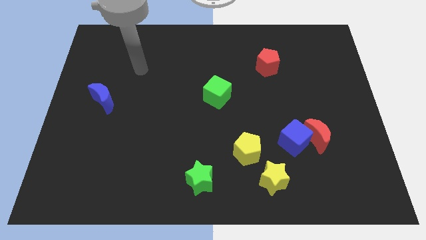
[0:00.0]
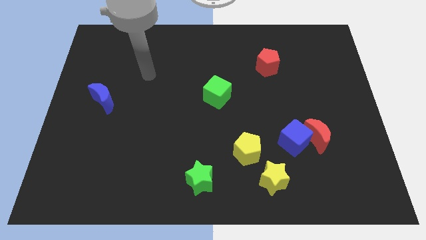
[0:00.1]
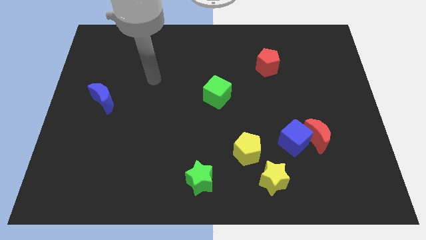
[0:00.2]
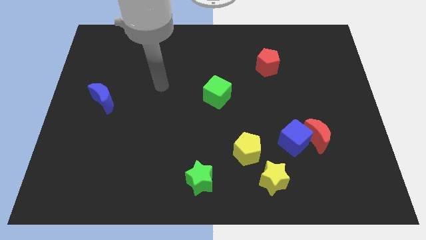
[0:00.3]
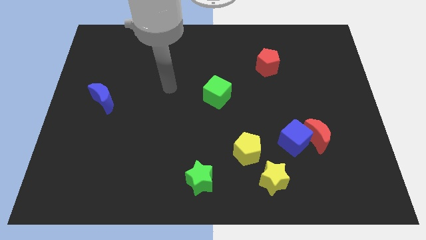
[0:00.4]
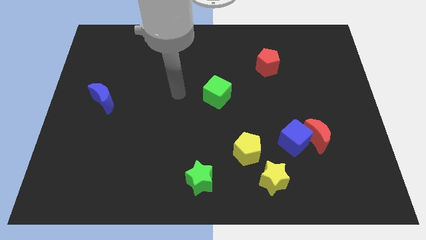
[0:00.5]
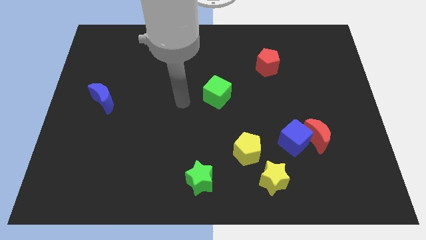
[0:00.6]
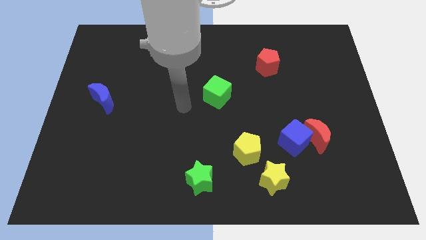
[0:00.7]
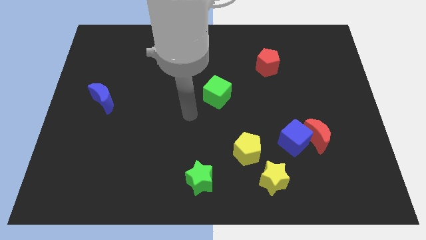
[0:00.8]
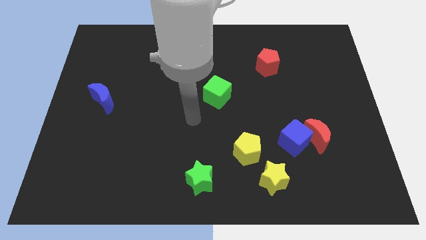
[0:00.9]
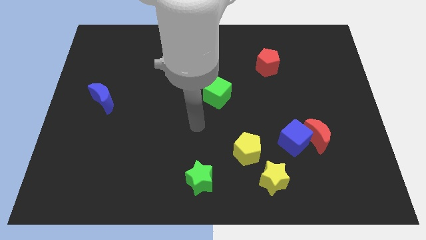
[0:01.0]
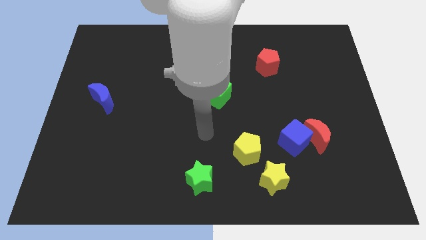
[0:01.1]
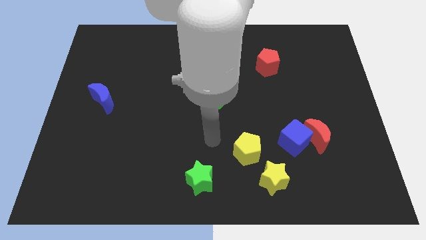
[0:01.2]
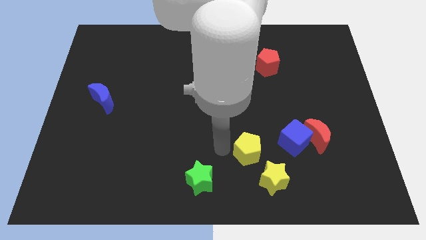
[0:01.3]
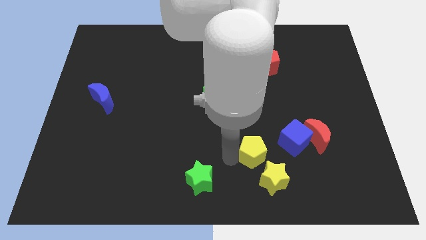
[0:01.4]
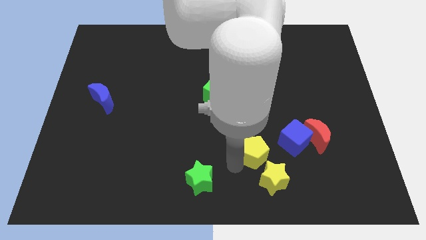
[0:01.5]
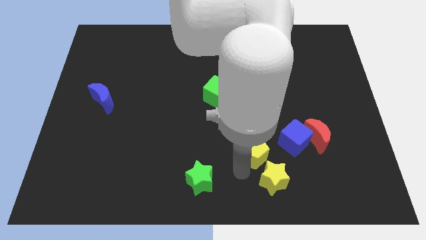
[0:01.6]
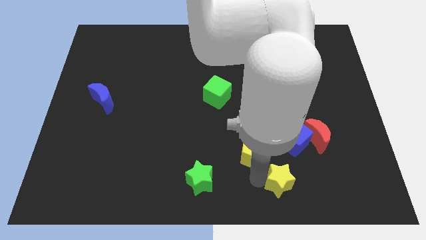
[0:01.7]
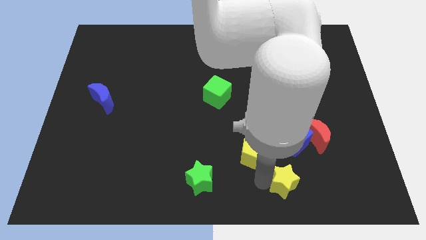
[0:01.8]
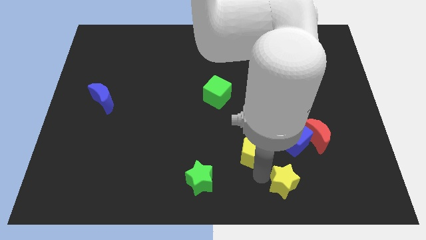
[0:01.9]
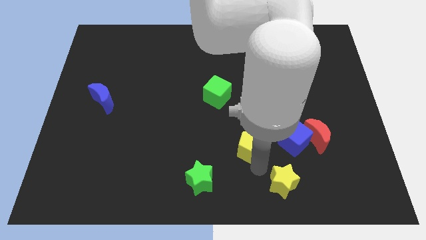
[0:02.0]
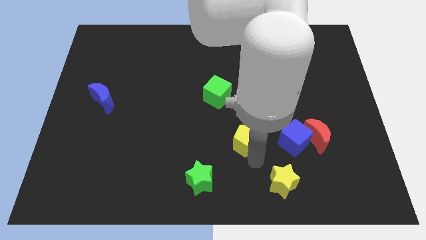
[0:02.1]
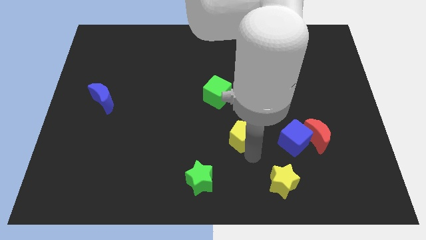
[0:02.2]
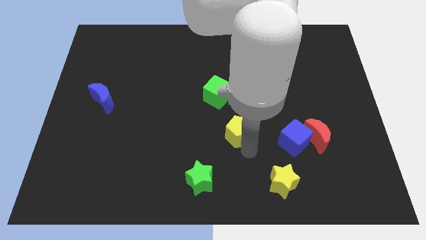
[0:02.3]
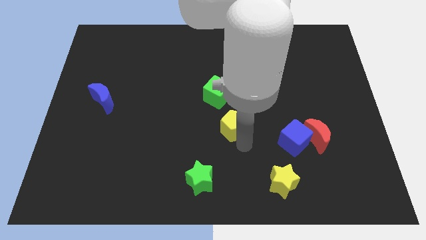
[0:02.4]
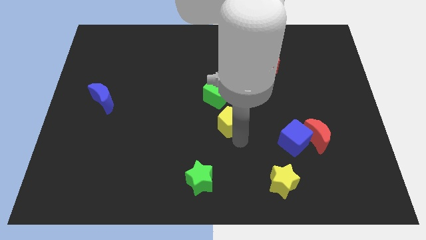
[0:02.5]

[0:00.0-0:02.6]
slightly push the yellow pentagon upwards

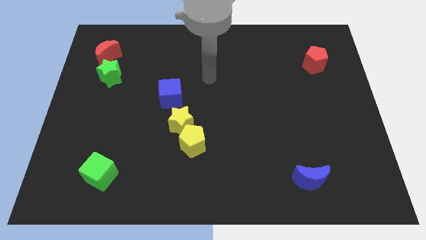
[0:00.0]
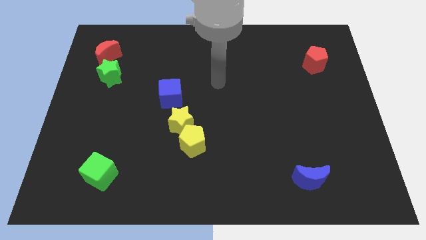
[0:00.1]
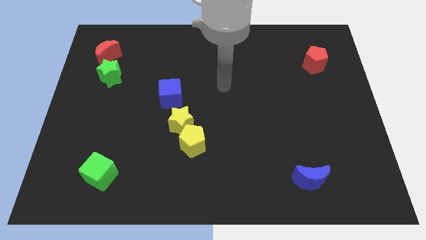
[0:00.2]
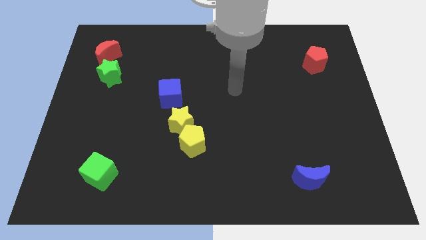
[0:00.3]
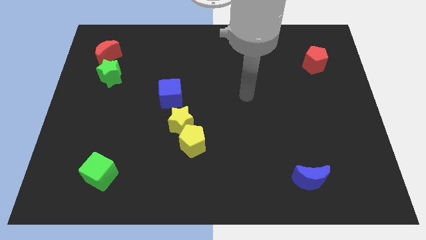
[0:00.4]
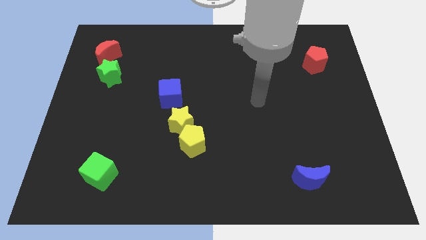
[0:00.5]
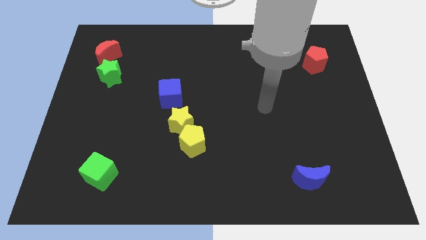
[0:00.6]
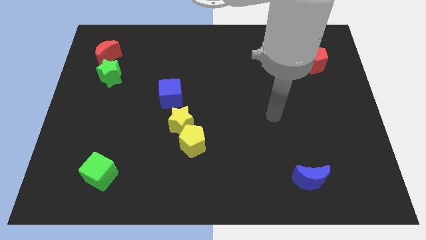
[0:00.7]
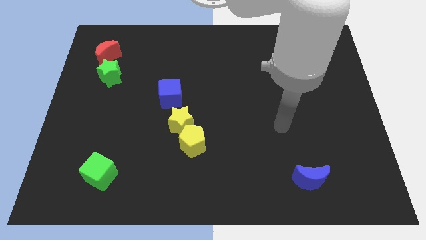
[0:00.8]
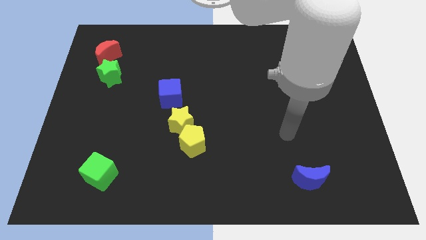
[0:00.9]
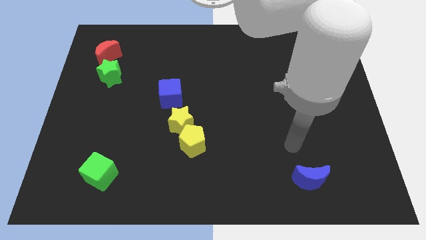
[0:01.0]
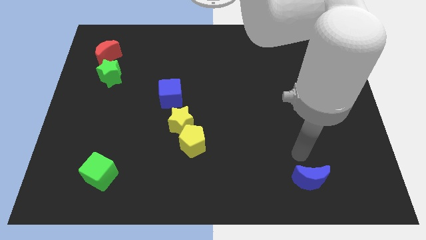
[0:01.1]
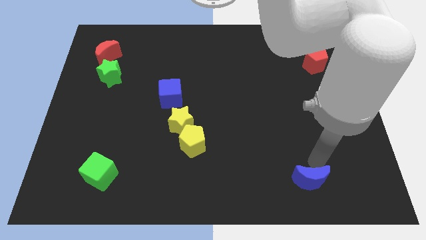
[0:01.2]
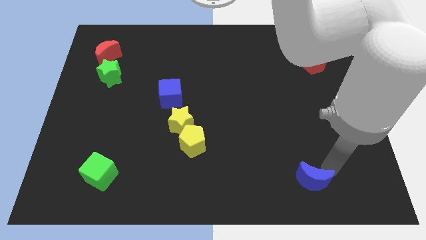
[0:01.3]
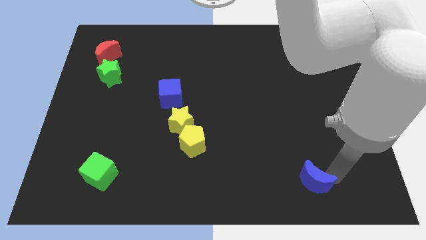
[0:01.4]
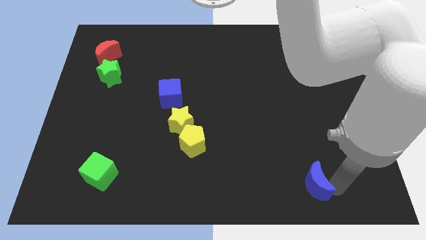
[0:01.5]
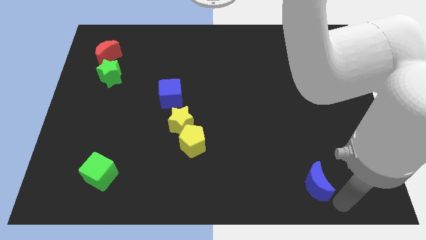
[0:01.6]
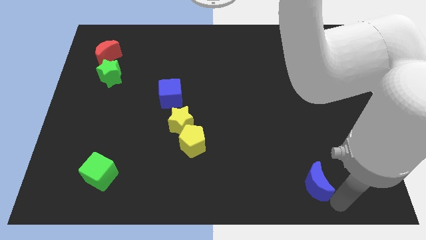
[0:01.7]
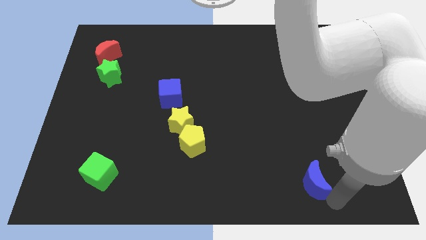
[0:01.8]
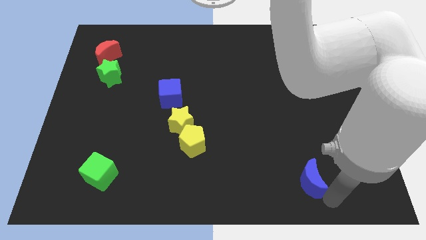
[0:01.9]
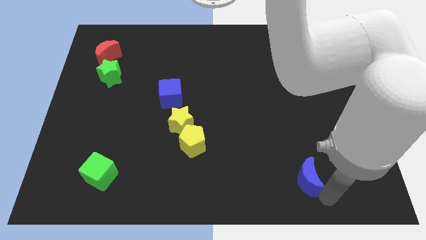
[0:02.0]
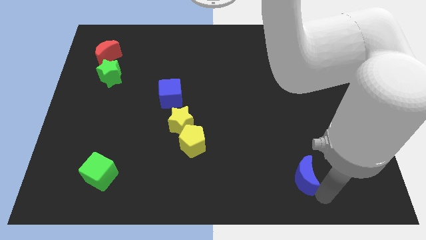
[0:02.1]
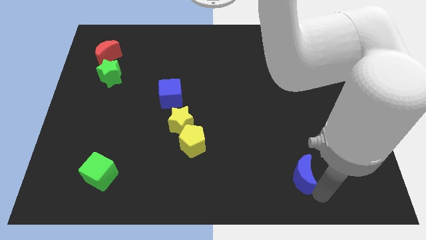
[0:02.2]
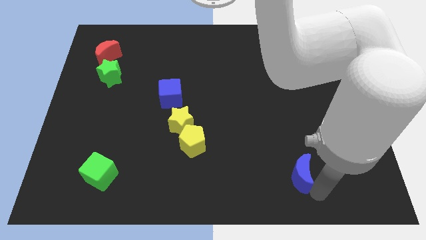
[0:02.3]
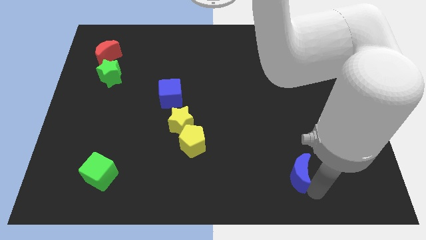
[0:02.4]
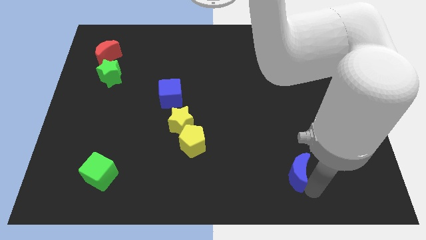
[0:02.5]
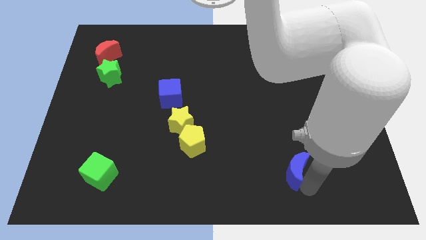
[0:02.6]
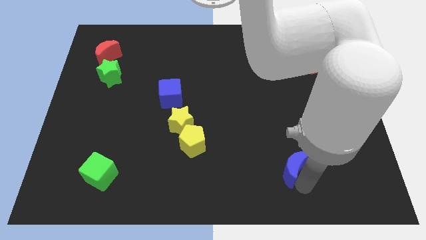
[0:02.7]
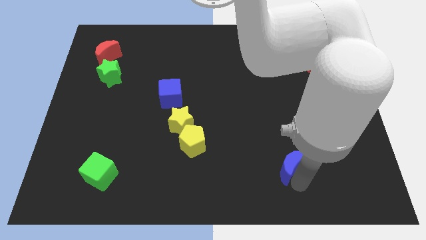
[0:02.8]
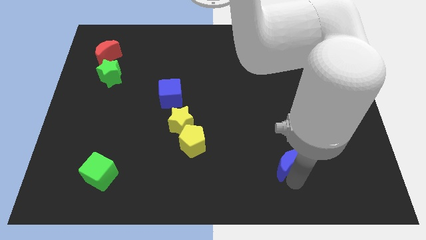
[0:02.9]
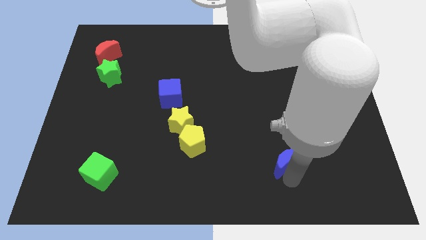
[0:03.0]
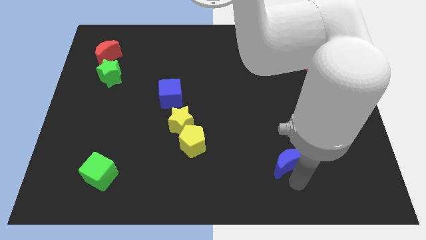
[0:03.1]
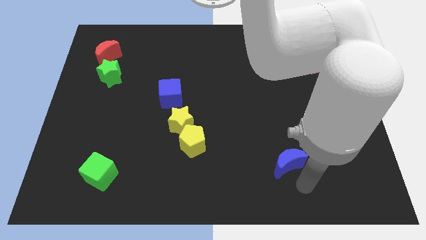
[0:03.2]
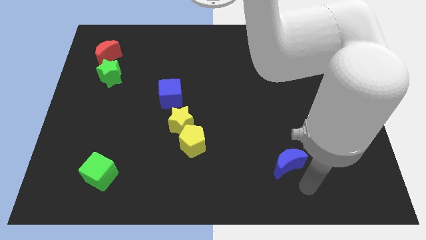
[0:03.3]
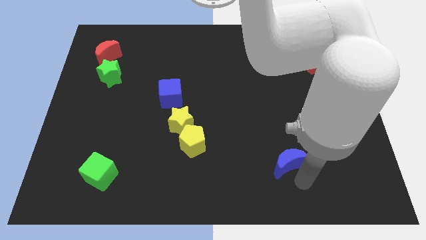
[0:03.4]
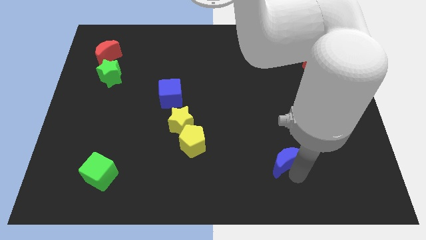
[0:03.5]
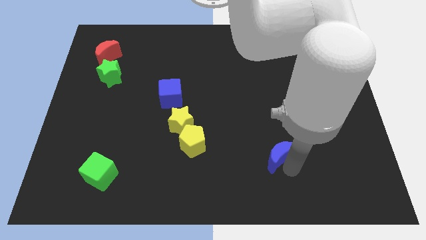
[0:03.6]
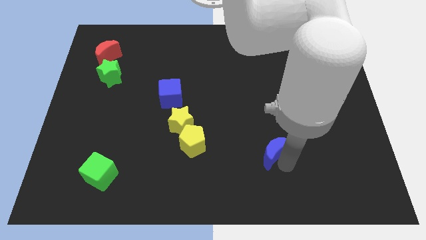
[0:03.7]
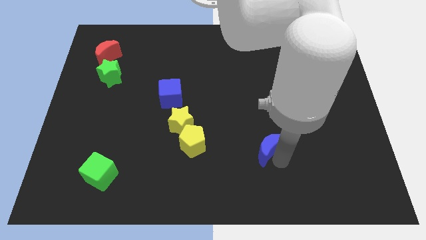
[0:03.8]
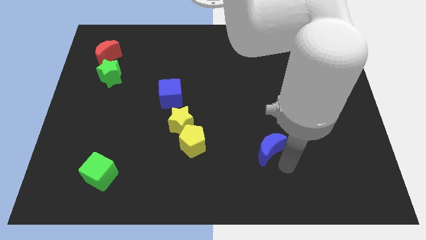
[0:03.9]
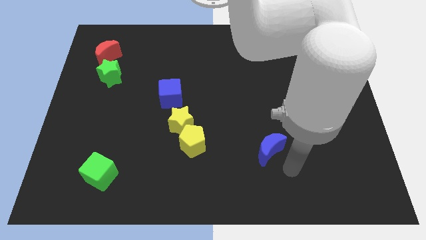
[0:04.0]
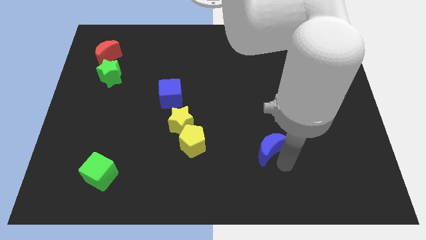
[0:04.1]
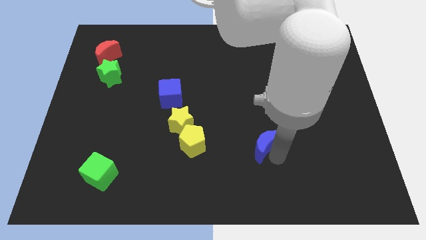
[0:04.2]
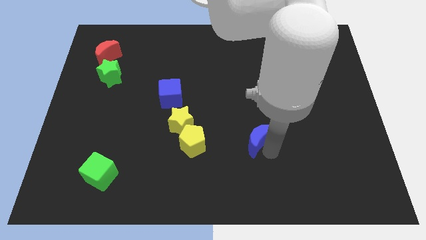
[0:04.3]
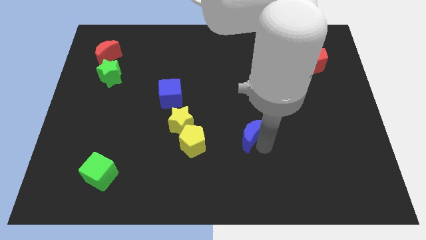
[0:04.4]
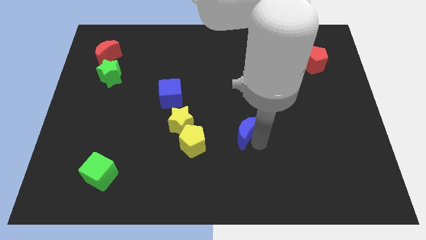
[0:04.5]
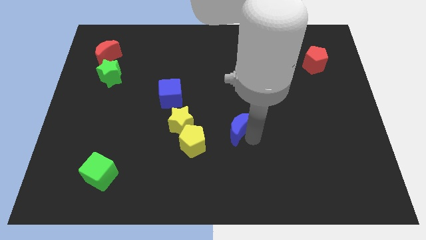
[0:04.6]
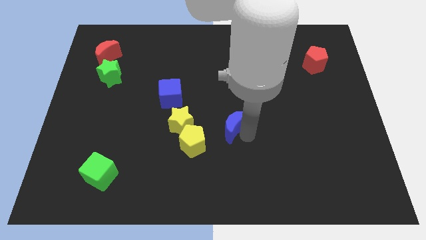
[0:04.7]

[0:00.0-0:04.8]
slide the blue moon diagonally upwards and left

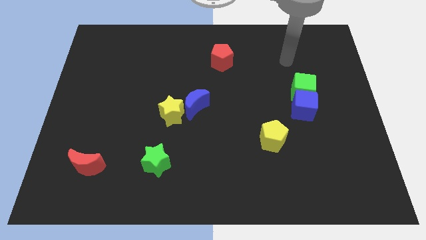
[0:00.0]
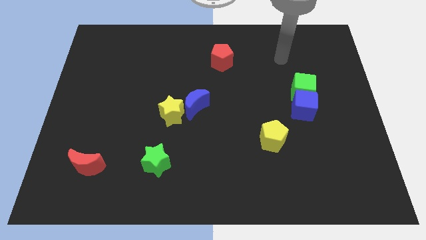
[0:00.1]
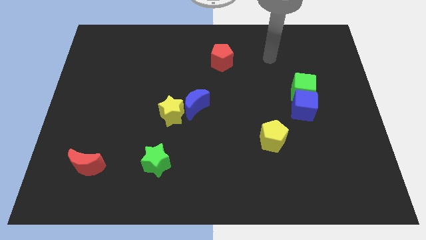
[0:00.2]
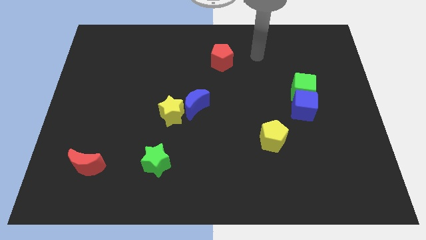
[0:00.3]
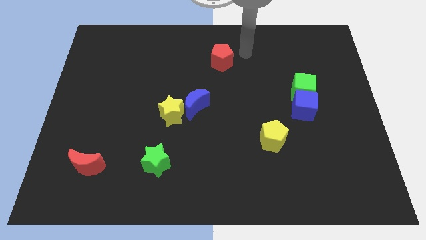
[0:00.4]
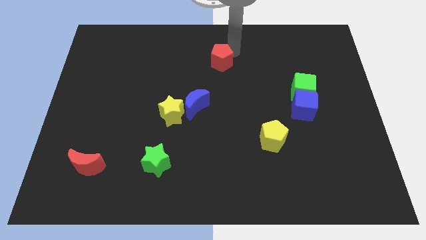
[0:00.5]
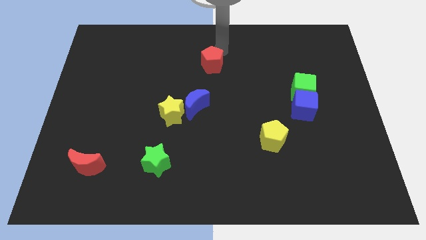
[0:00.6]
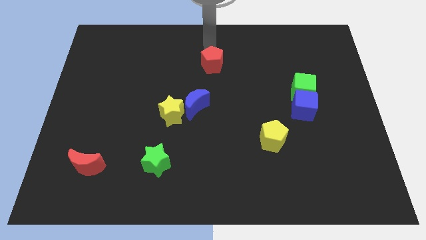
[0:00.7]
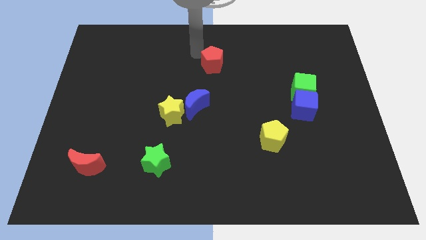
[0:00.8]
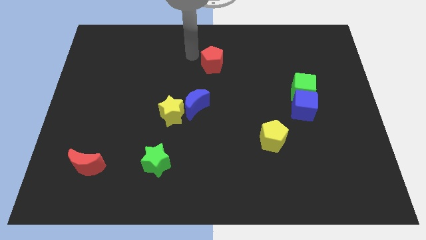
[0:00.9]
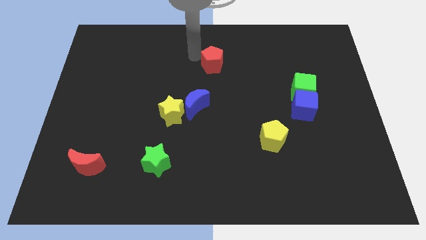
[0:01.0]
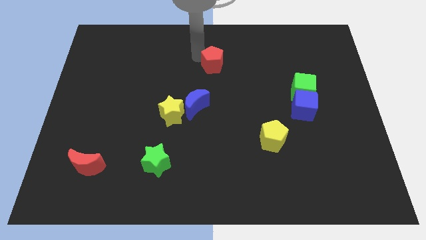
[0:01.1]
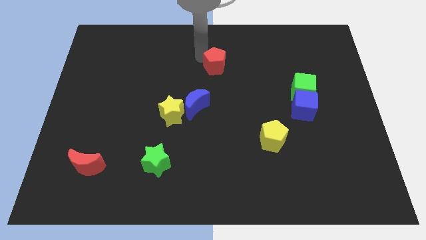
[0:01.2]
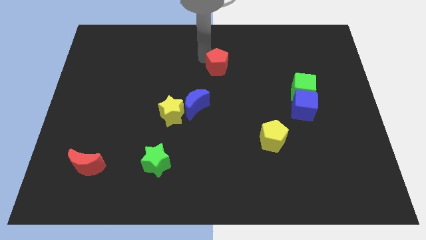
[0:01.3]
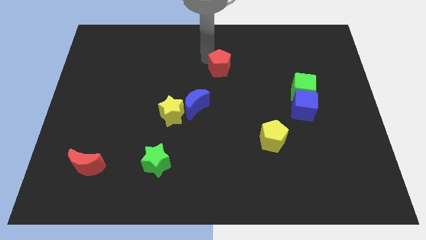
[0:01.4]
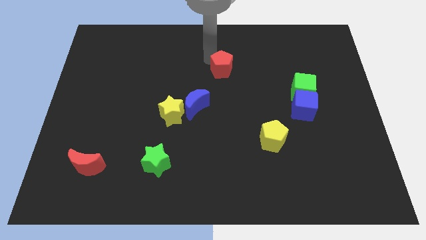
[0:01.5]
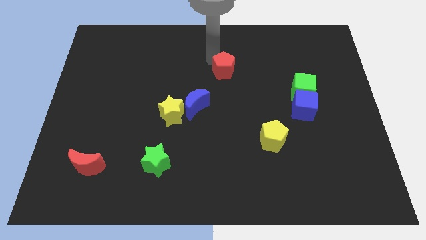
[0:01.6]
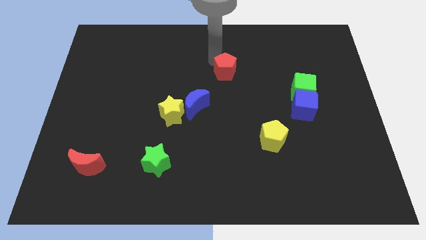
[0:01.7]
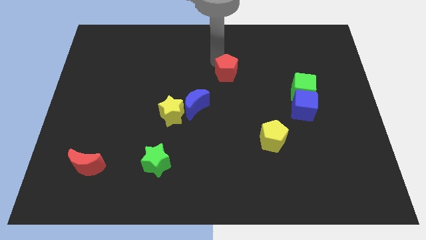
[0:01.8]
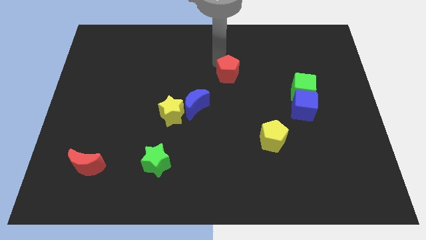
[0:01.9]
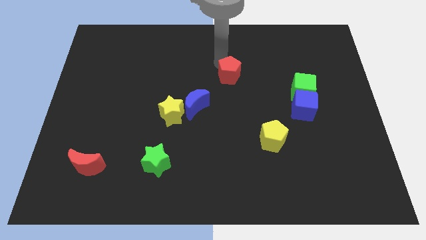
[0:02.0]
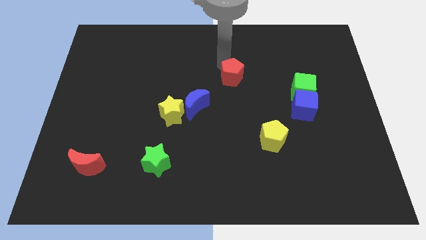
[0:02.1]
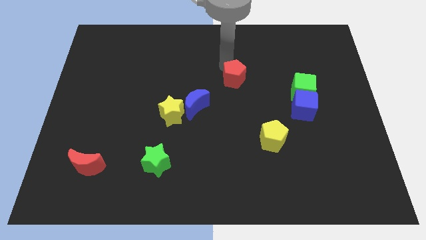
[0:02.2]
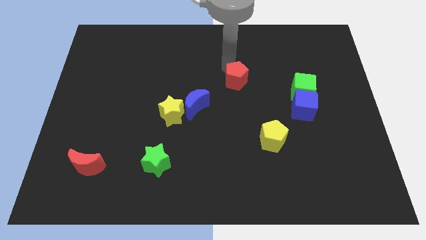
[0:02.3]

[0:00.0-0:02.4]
slide the red pentagon a bit downwards and to the right
